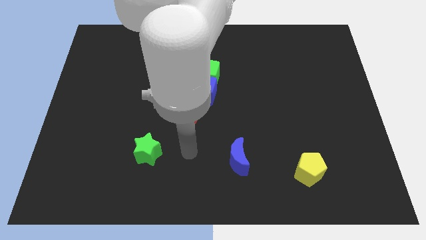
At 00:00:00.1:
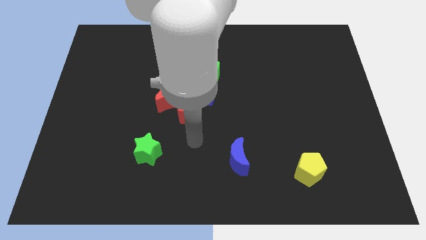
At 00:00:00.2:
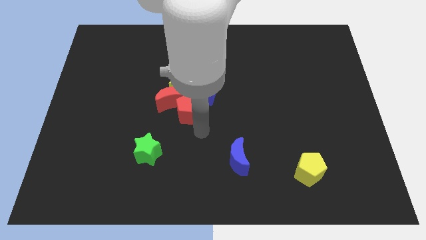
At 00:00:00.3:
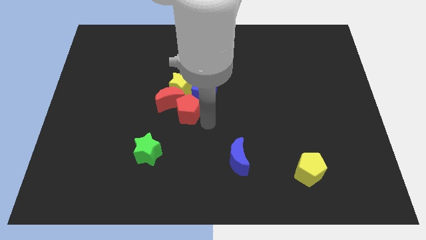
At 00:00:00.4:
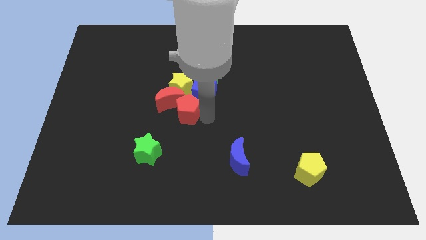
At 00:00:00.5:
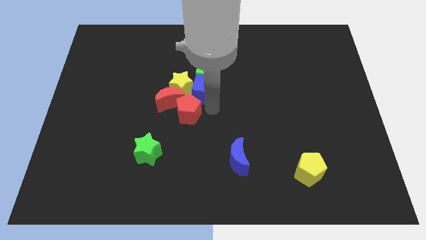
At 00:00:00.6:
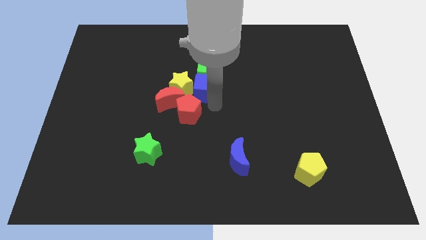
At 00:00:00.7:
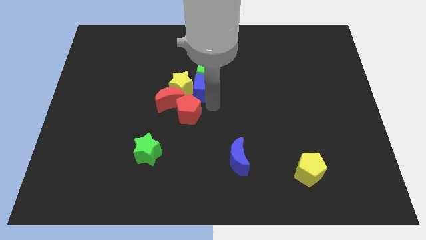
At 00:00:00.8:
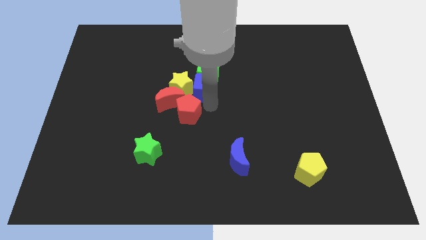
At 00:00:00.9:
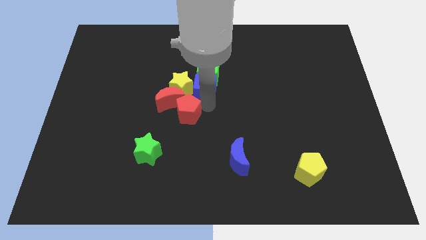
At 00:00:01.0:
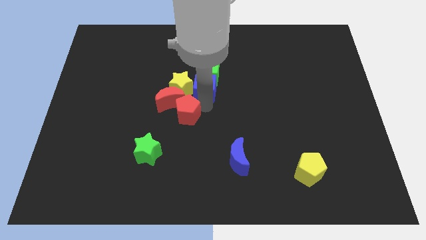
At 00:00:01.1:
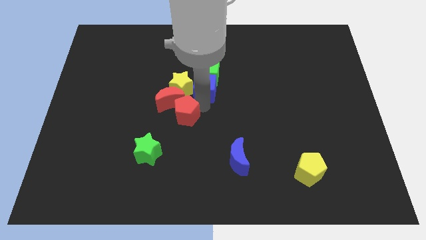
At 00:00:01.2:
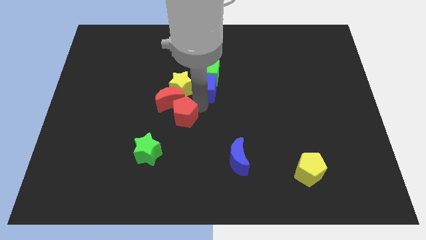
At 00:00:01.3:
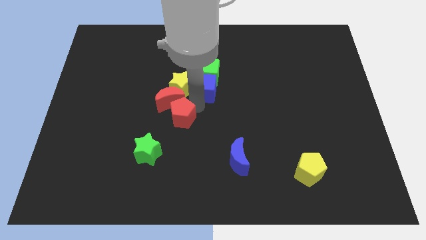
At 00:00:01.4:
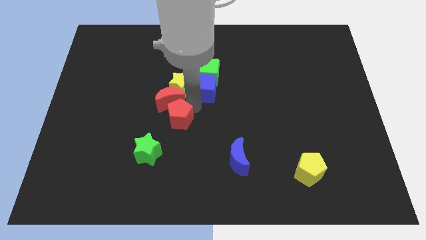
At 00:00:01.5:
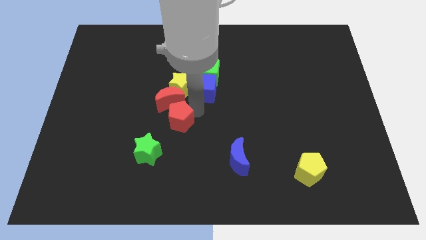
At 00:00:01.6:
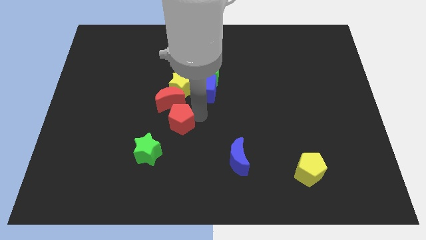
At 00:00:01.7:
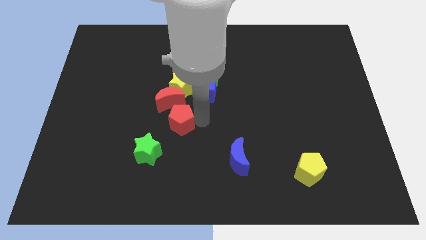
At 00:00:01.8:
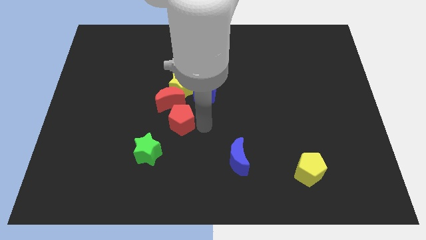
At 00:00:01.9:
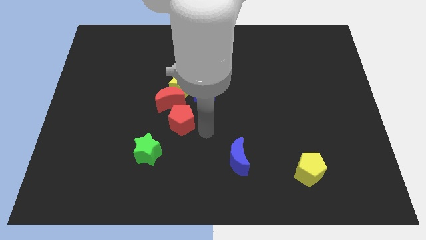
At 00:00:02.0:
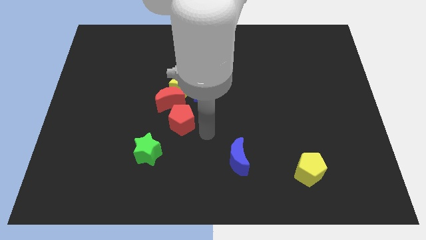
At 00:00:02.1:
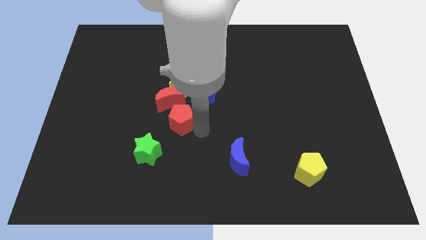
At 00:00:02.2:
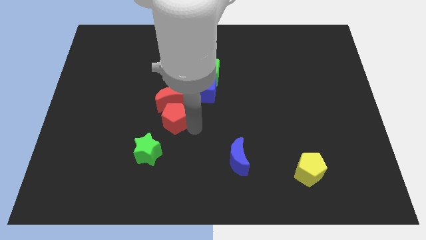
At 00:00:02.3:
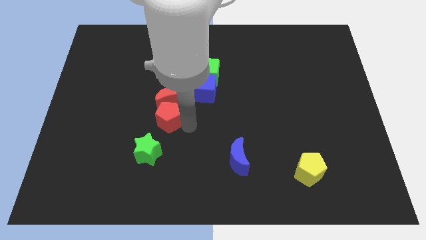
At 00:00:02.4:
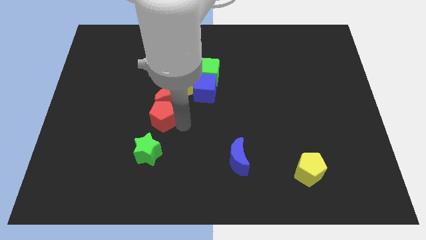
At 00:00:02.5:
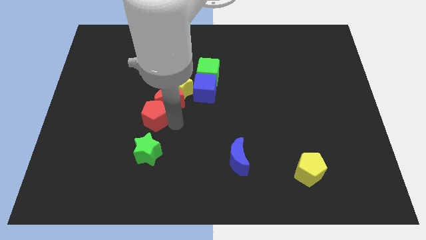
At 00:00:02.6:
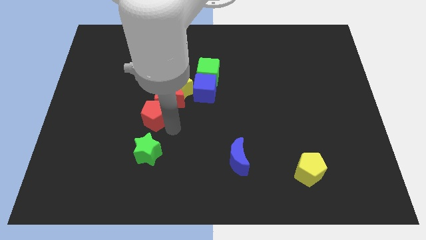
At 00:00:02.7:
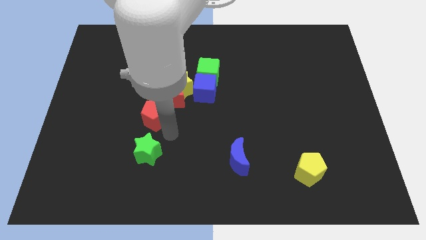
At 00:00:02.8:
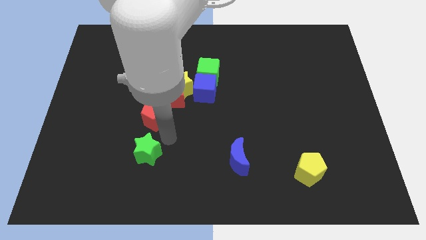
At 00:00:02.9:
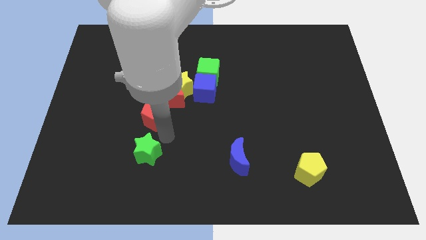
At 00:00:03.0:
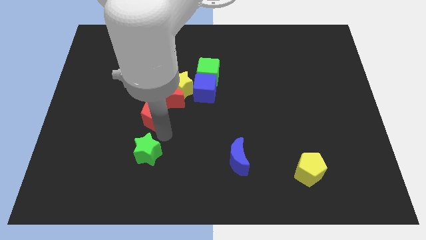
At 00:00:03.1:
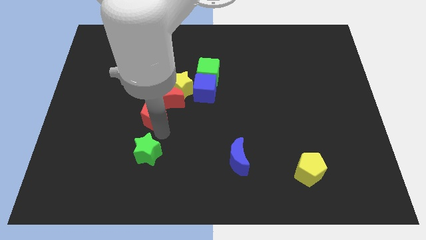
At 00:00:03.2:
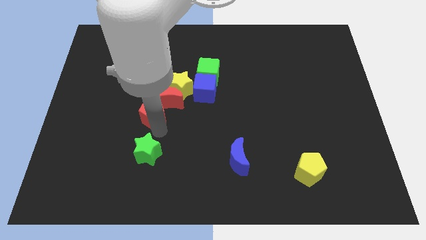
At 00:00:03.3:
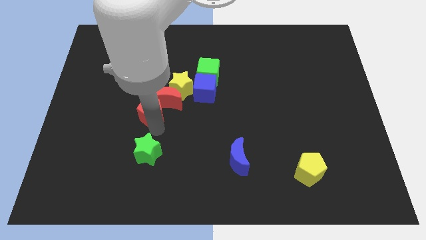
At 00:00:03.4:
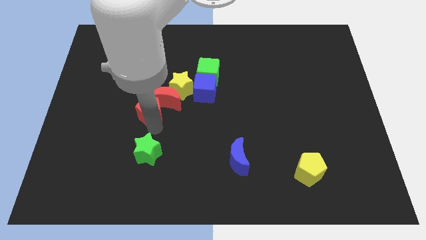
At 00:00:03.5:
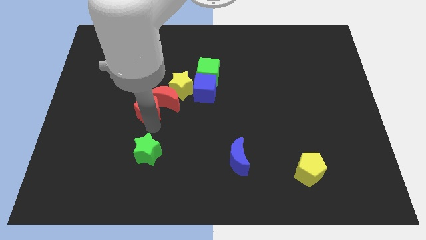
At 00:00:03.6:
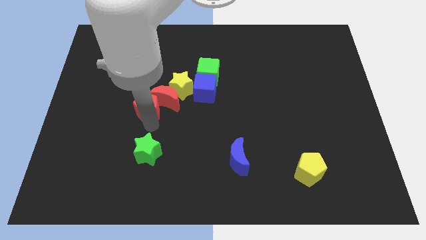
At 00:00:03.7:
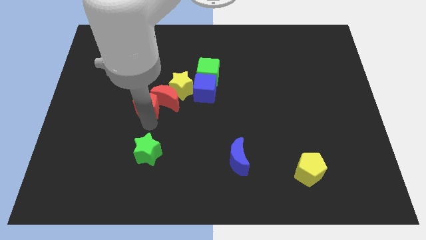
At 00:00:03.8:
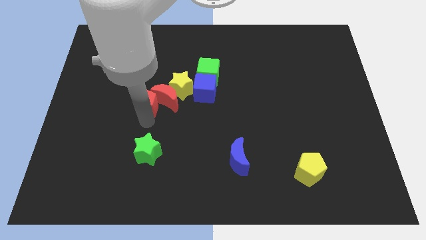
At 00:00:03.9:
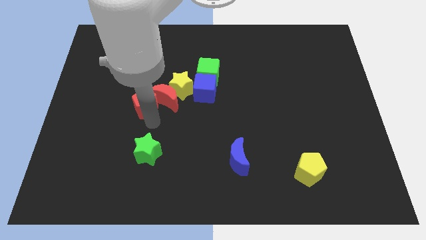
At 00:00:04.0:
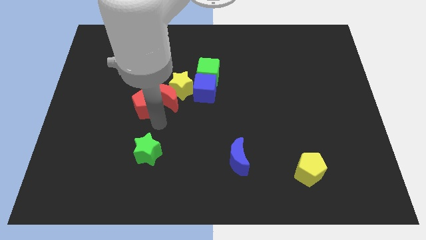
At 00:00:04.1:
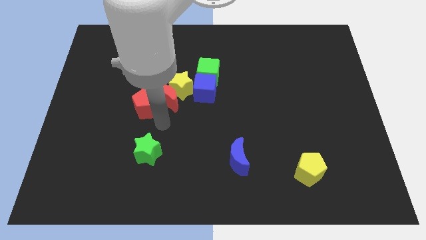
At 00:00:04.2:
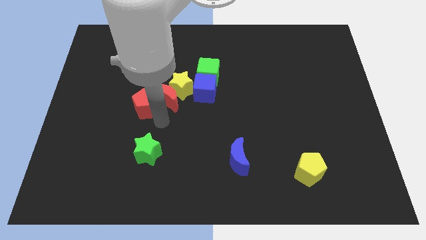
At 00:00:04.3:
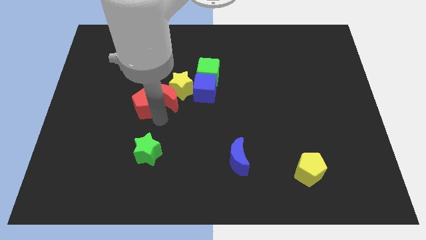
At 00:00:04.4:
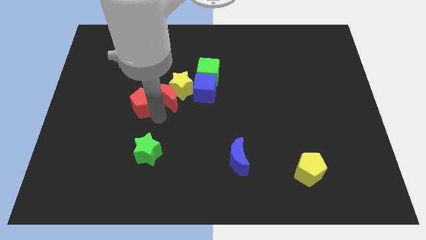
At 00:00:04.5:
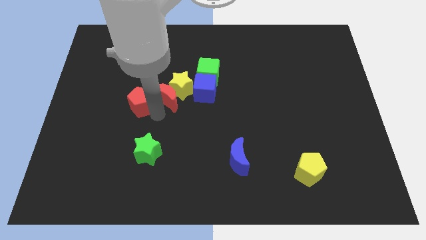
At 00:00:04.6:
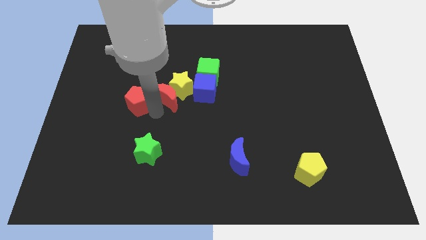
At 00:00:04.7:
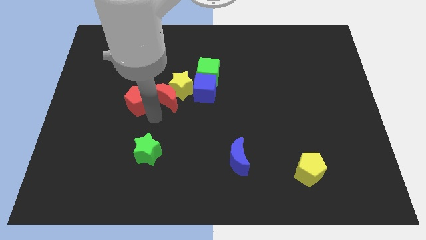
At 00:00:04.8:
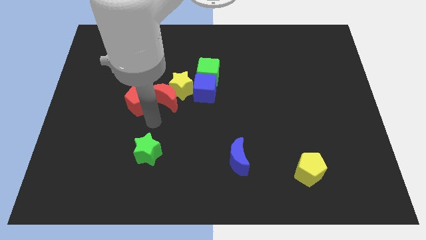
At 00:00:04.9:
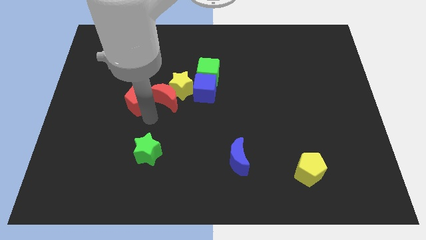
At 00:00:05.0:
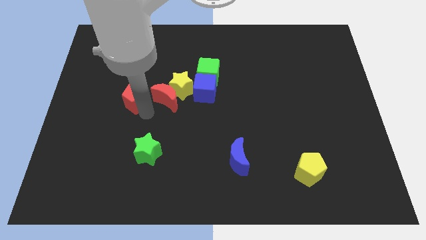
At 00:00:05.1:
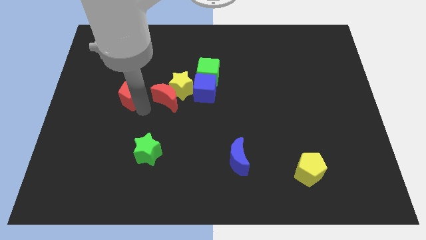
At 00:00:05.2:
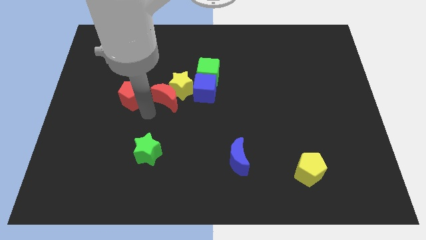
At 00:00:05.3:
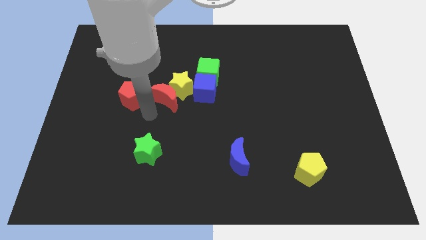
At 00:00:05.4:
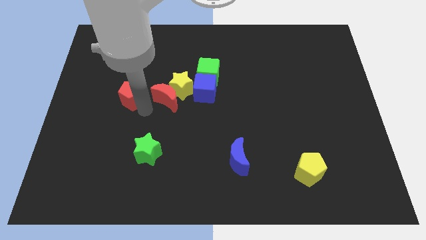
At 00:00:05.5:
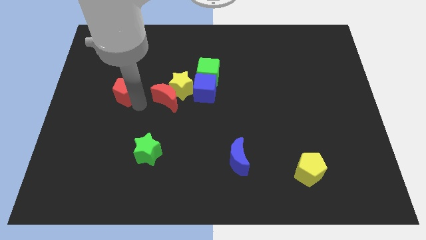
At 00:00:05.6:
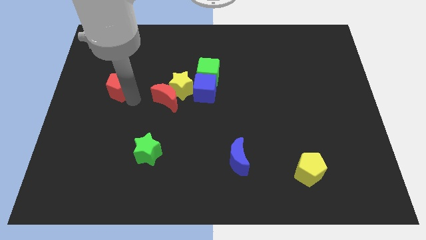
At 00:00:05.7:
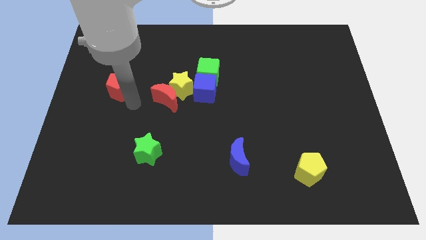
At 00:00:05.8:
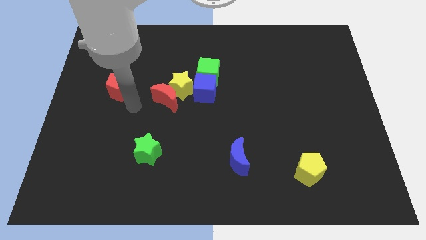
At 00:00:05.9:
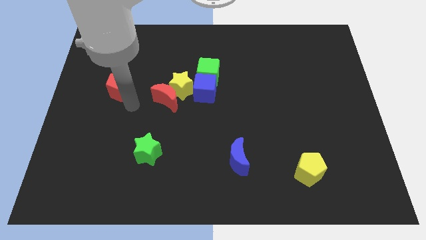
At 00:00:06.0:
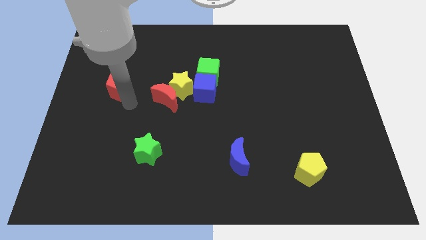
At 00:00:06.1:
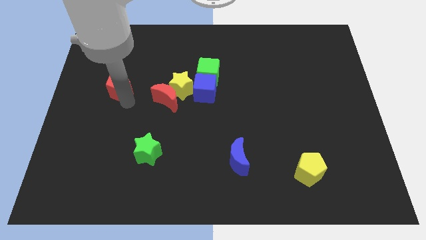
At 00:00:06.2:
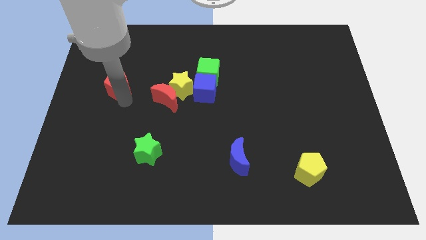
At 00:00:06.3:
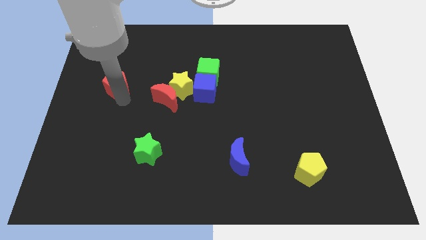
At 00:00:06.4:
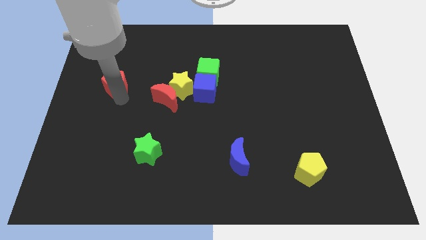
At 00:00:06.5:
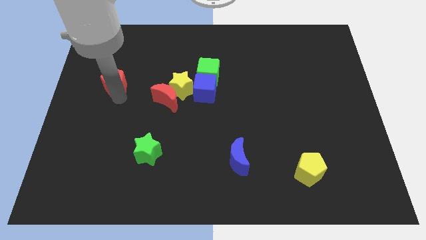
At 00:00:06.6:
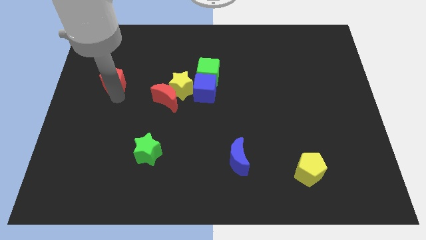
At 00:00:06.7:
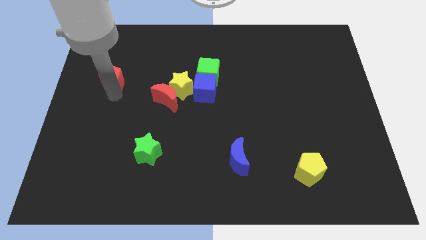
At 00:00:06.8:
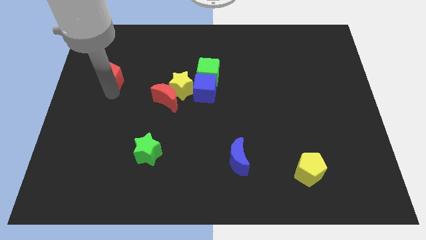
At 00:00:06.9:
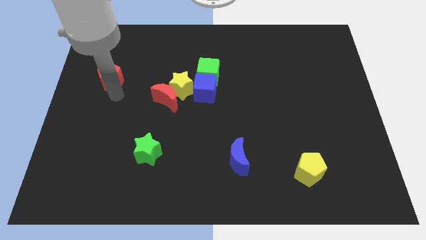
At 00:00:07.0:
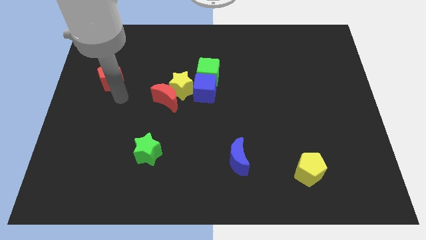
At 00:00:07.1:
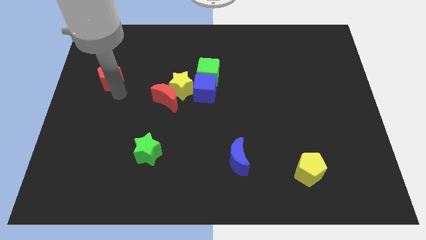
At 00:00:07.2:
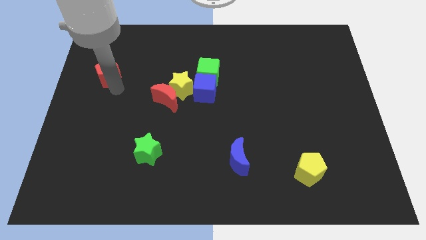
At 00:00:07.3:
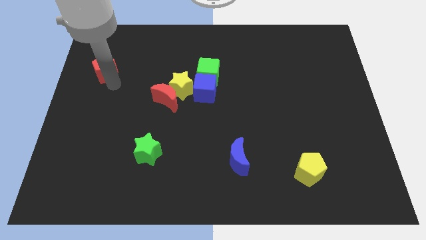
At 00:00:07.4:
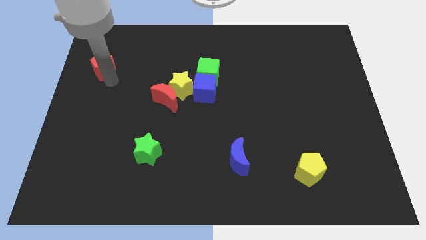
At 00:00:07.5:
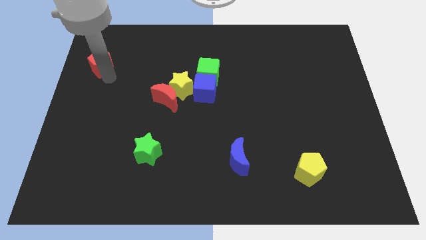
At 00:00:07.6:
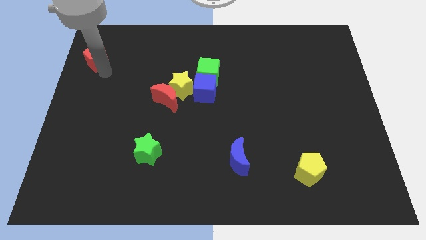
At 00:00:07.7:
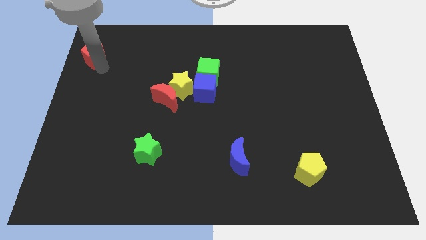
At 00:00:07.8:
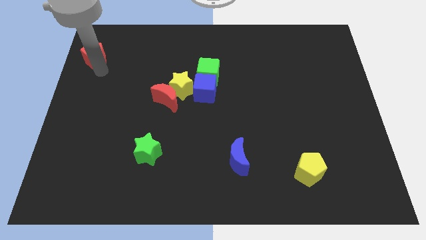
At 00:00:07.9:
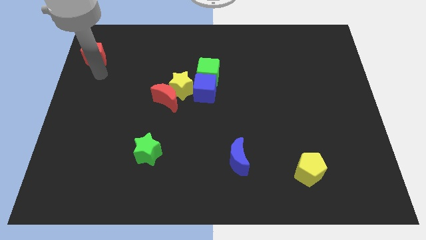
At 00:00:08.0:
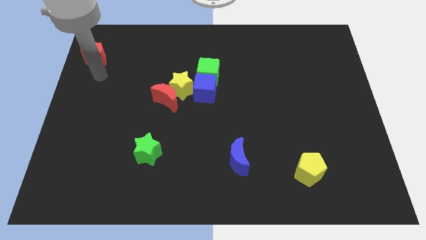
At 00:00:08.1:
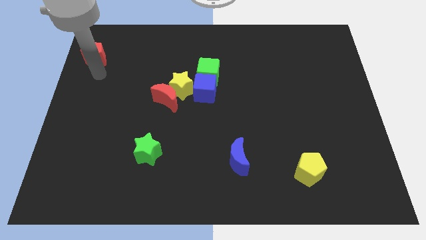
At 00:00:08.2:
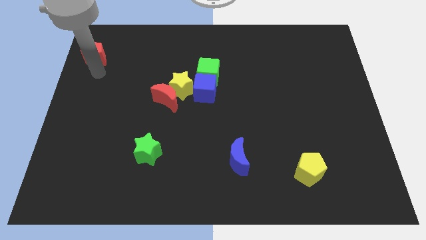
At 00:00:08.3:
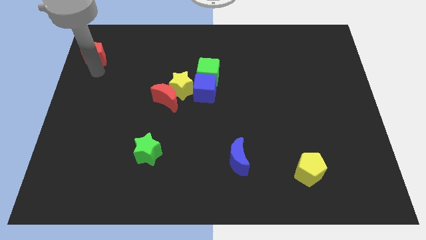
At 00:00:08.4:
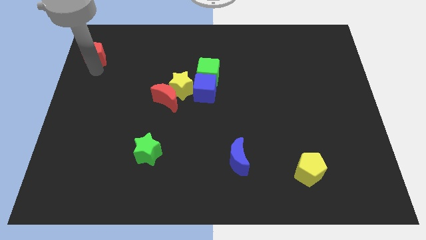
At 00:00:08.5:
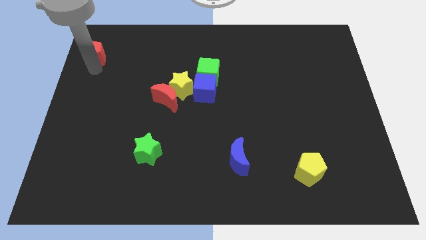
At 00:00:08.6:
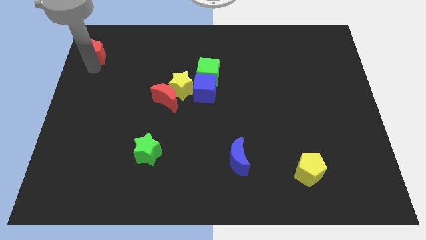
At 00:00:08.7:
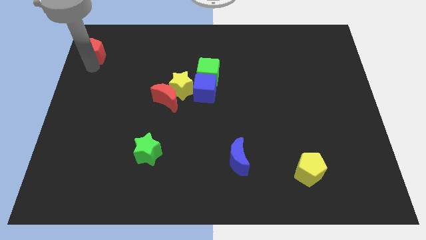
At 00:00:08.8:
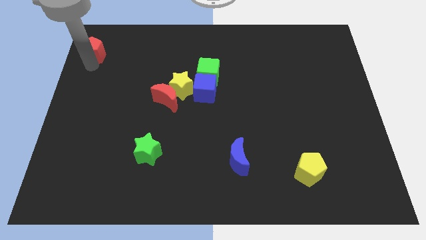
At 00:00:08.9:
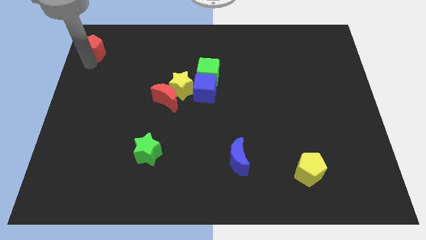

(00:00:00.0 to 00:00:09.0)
push the red pentagon to the top left of the board
